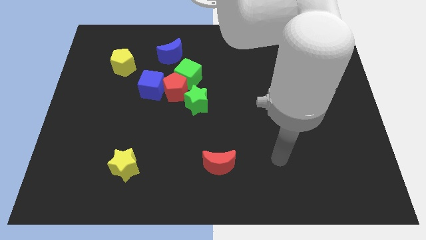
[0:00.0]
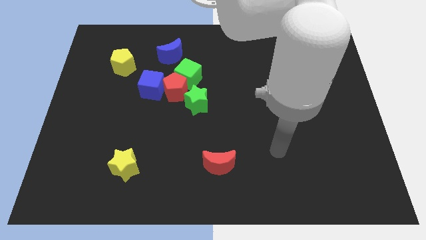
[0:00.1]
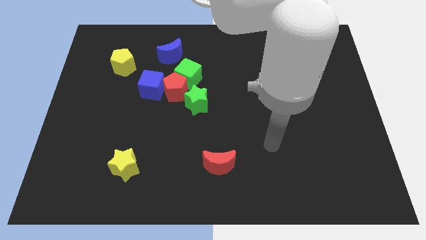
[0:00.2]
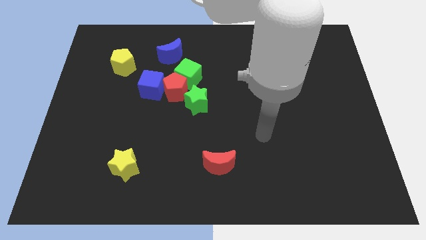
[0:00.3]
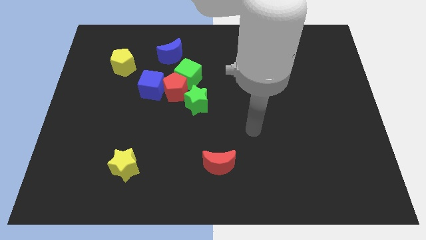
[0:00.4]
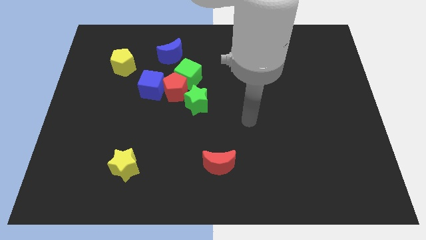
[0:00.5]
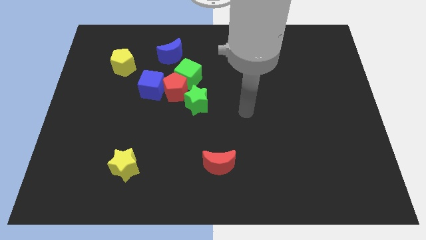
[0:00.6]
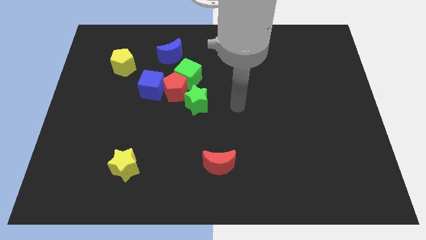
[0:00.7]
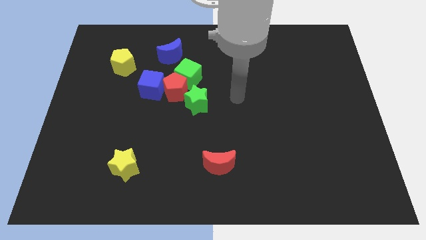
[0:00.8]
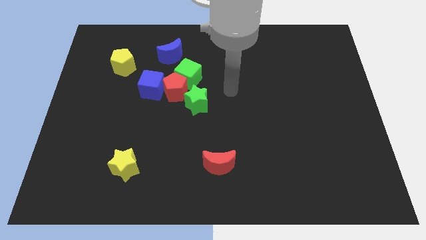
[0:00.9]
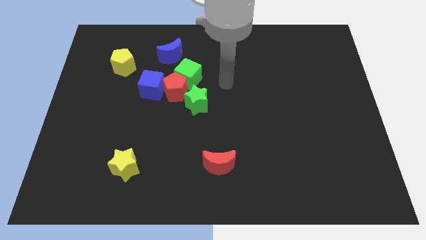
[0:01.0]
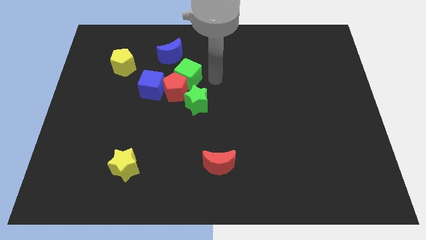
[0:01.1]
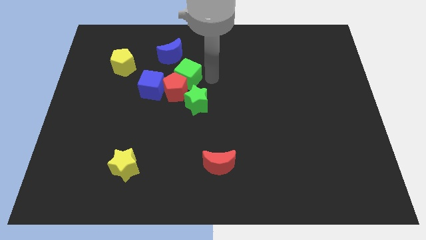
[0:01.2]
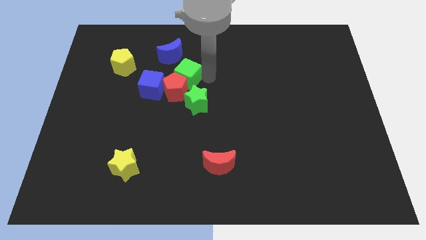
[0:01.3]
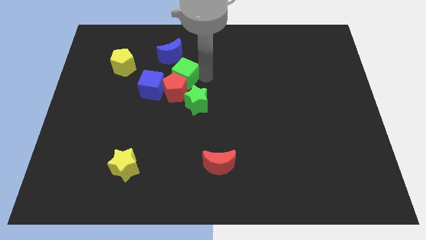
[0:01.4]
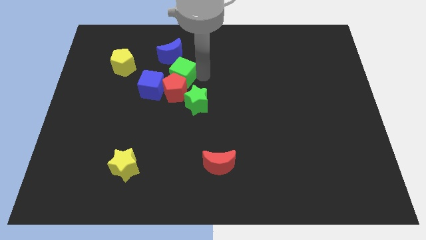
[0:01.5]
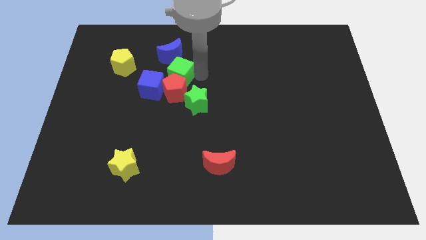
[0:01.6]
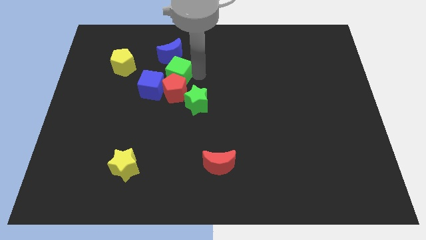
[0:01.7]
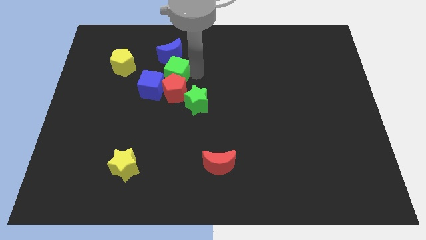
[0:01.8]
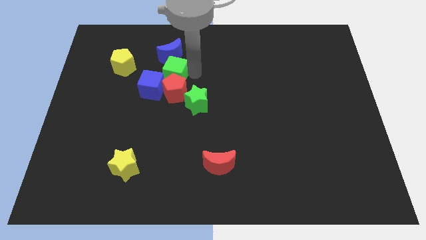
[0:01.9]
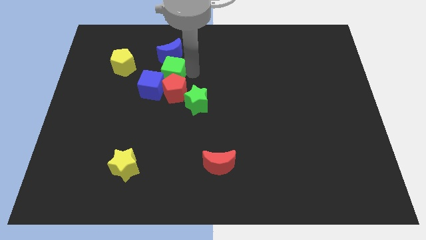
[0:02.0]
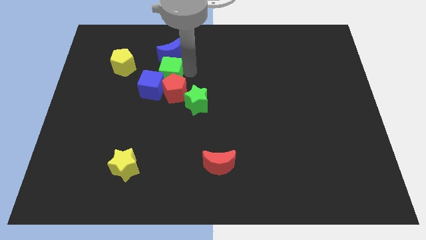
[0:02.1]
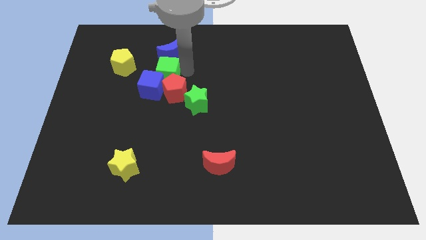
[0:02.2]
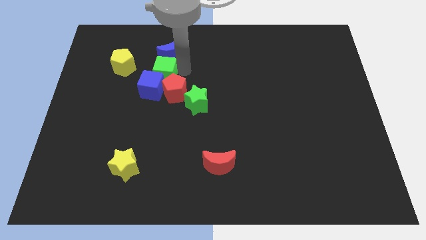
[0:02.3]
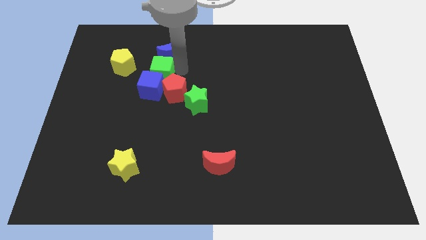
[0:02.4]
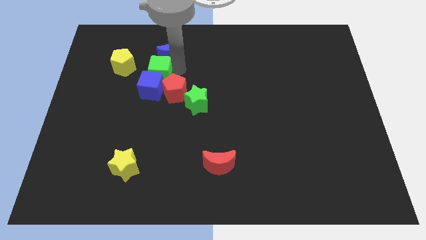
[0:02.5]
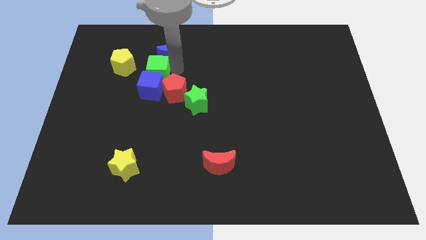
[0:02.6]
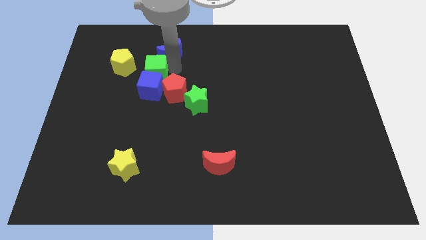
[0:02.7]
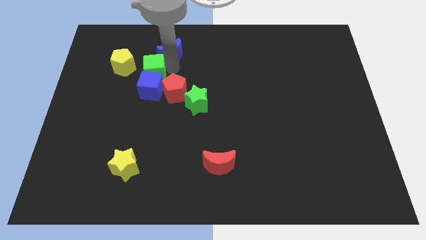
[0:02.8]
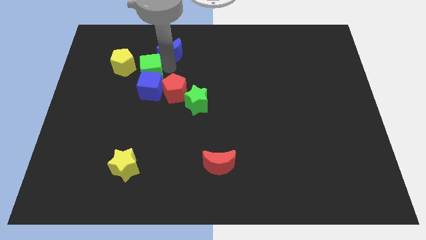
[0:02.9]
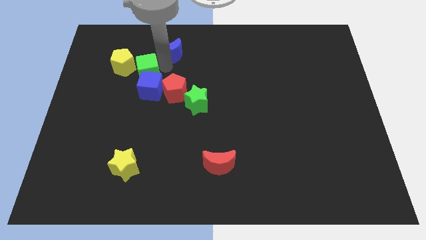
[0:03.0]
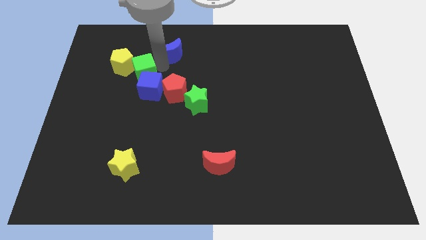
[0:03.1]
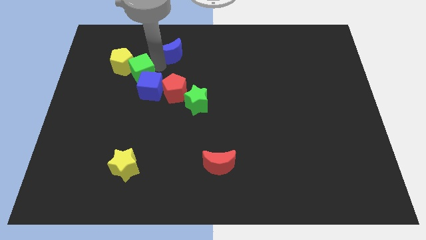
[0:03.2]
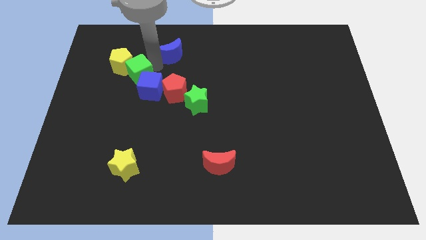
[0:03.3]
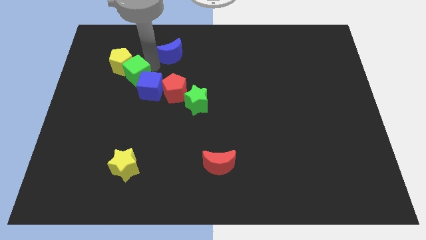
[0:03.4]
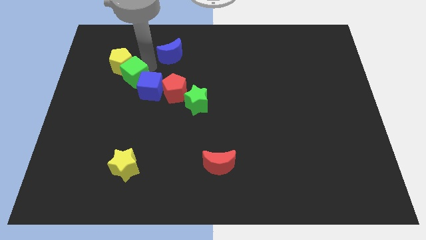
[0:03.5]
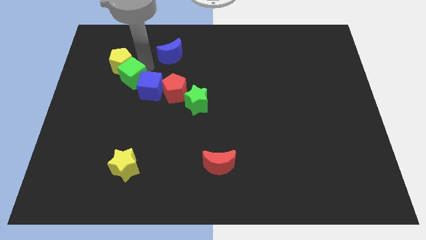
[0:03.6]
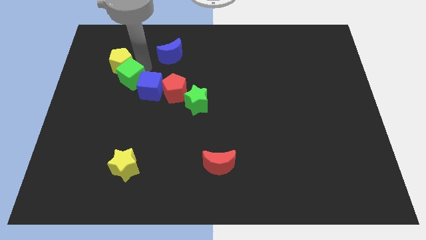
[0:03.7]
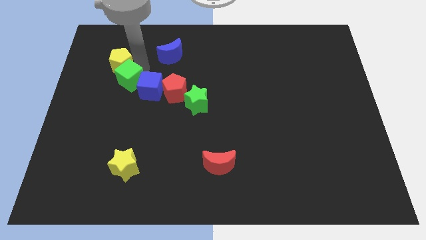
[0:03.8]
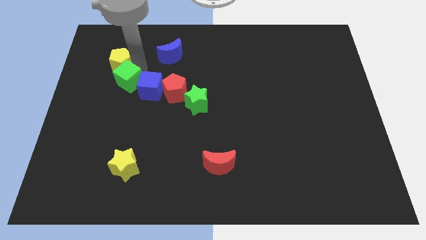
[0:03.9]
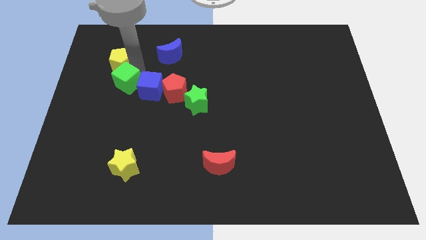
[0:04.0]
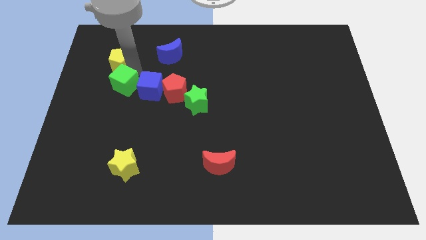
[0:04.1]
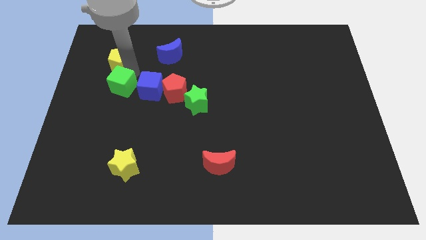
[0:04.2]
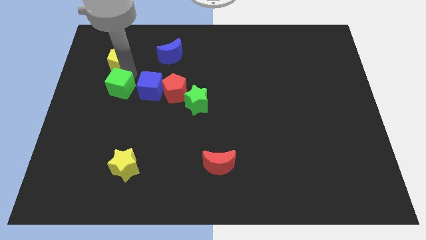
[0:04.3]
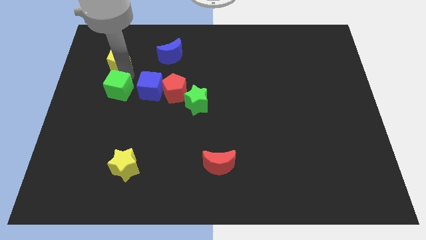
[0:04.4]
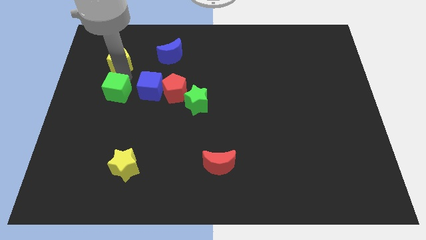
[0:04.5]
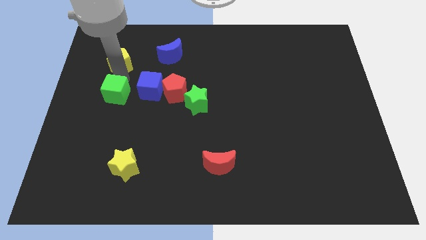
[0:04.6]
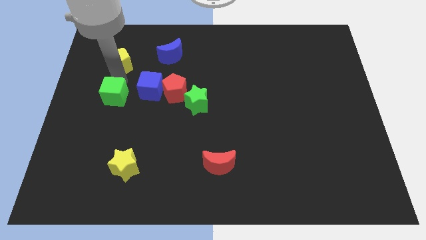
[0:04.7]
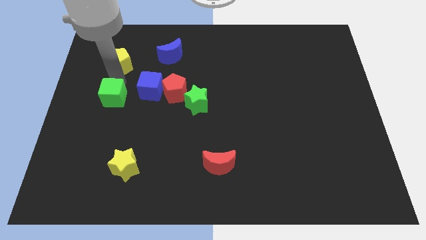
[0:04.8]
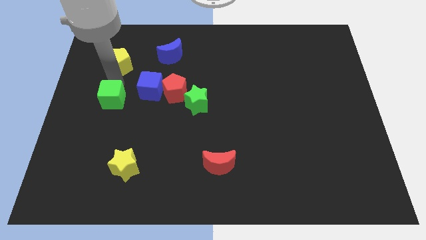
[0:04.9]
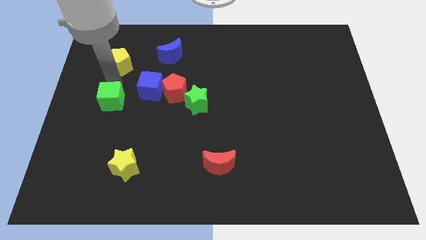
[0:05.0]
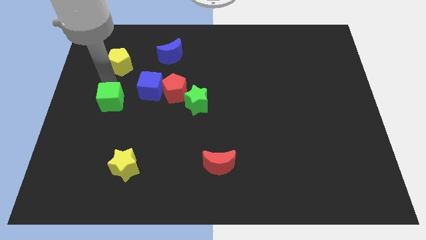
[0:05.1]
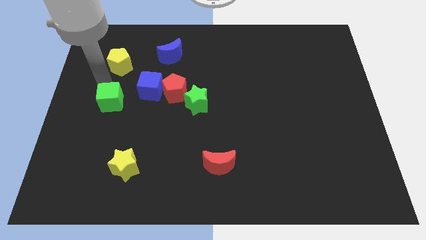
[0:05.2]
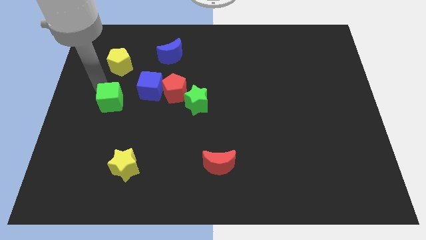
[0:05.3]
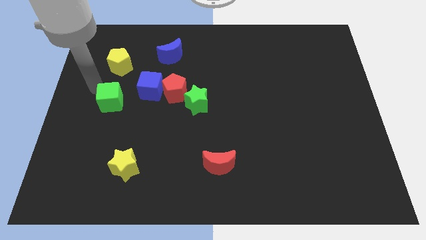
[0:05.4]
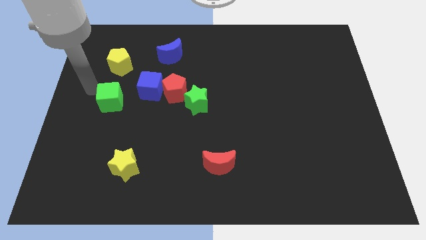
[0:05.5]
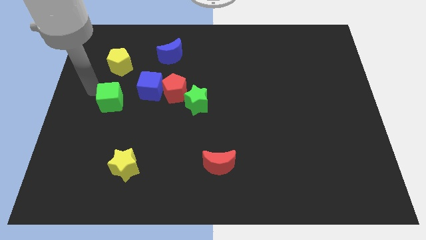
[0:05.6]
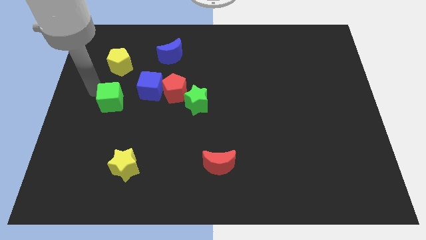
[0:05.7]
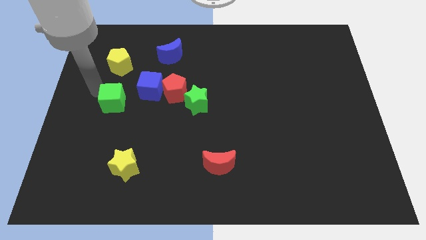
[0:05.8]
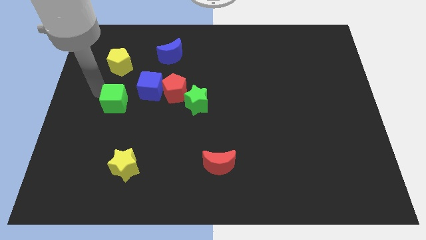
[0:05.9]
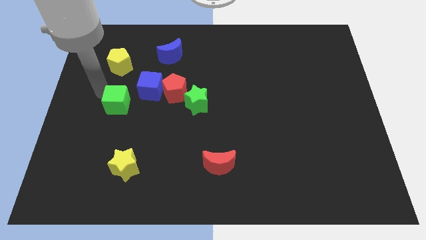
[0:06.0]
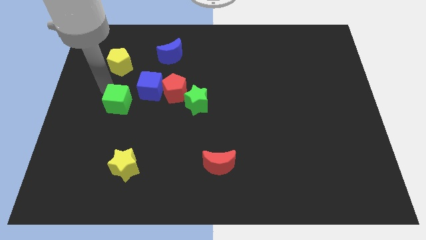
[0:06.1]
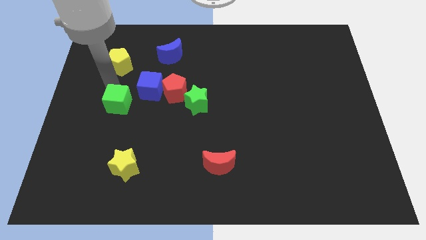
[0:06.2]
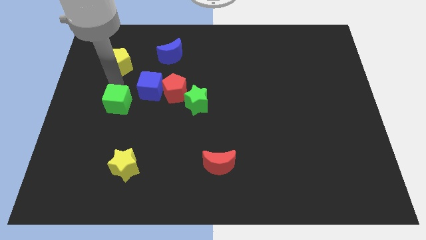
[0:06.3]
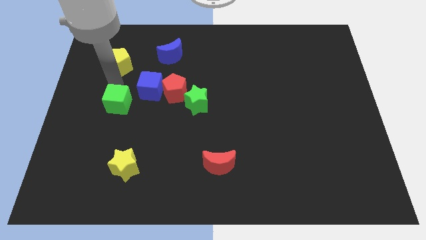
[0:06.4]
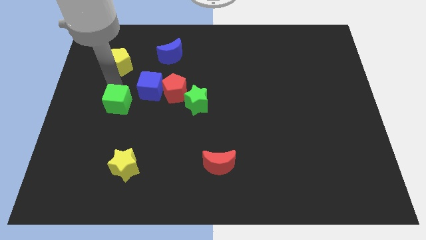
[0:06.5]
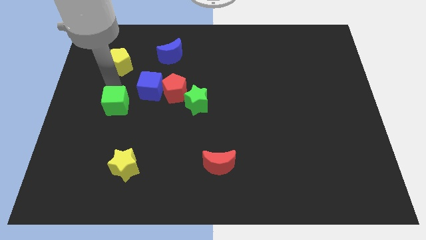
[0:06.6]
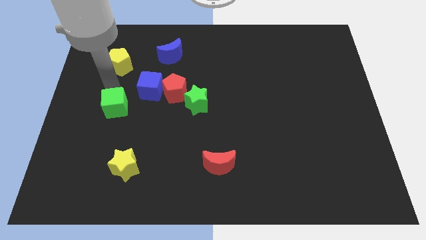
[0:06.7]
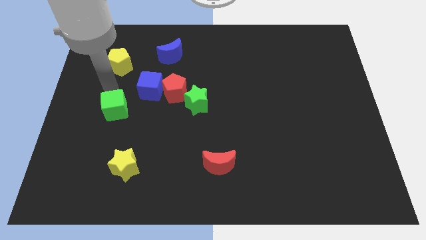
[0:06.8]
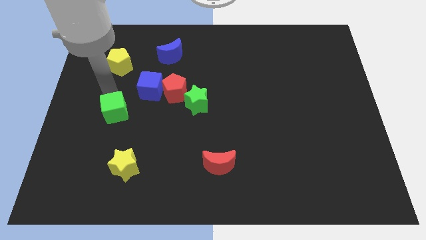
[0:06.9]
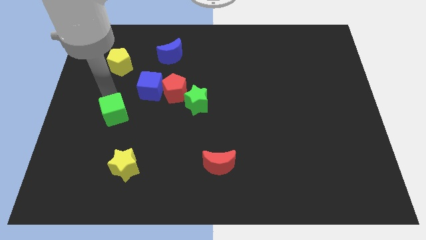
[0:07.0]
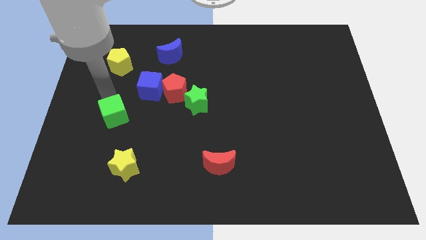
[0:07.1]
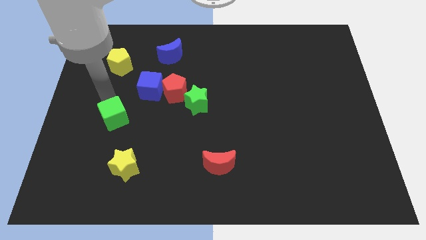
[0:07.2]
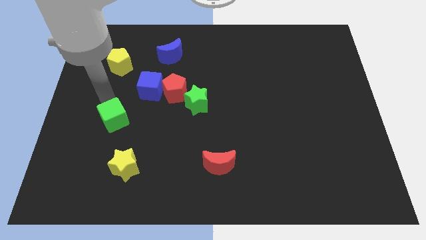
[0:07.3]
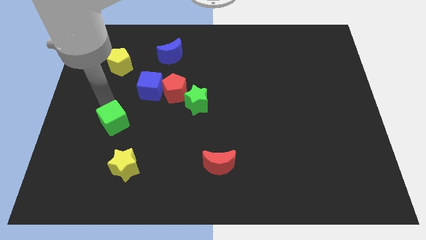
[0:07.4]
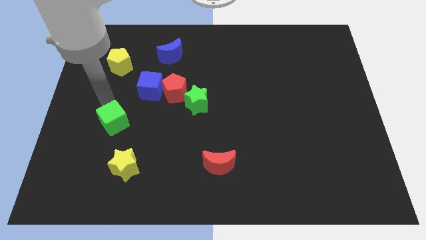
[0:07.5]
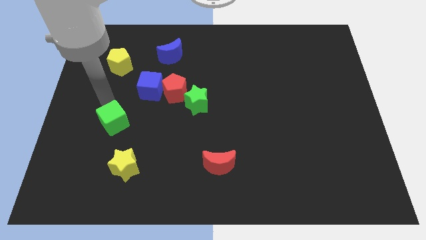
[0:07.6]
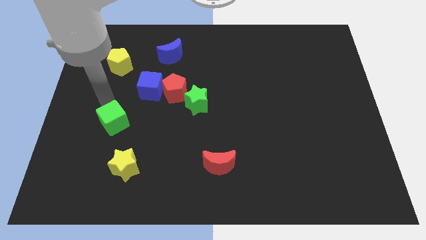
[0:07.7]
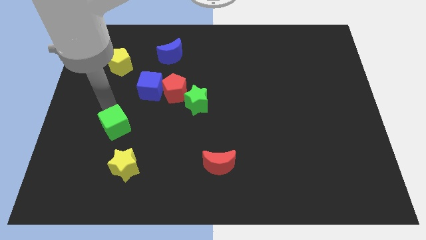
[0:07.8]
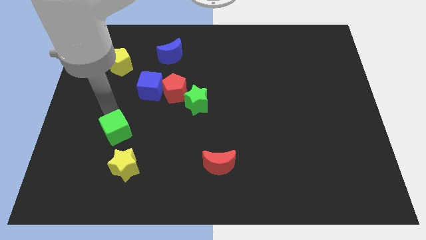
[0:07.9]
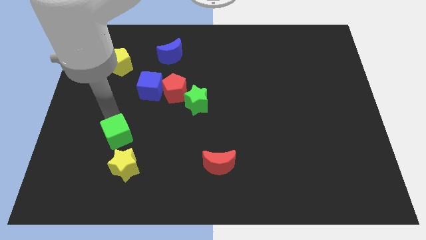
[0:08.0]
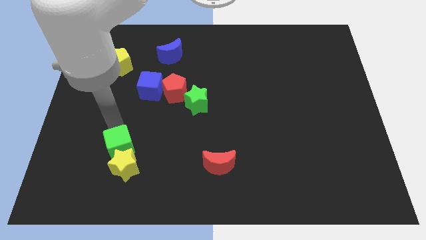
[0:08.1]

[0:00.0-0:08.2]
move the green cube towards the yellow star
